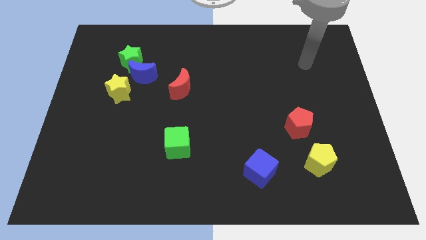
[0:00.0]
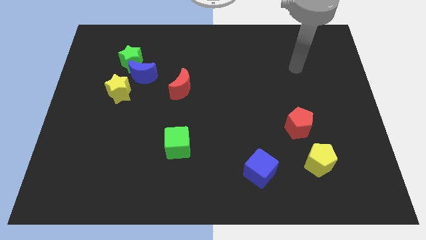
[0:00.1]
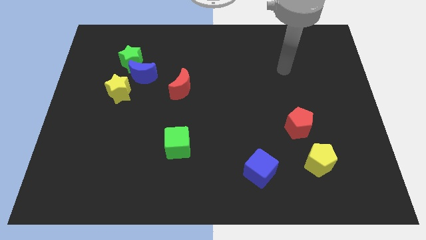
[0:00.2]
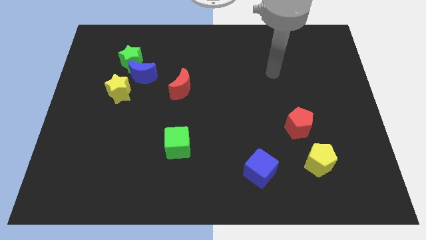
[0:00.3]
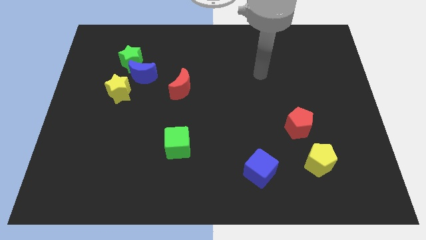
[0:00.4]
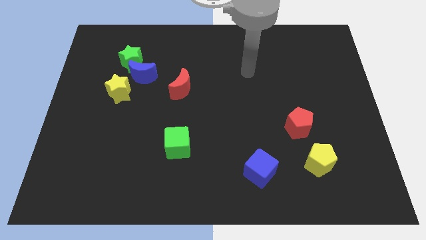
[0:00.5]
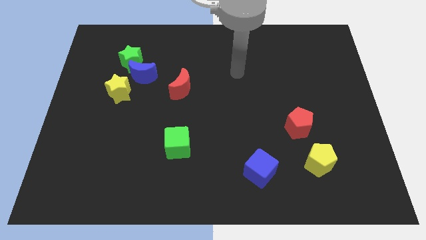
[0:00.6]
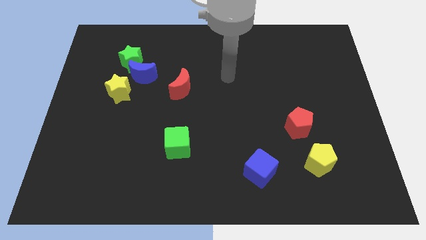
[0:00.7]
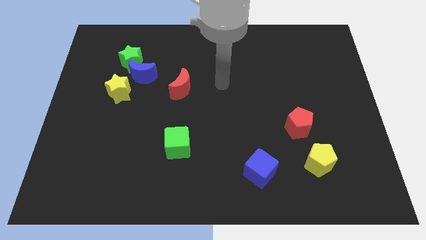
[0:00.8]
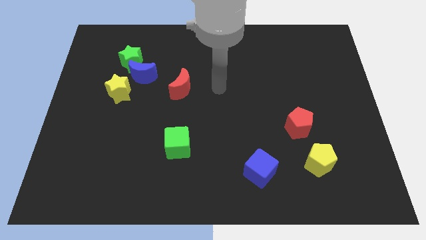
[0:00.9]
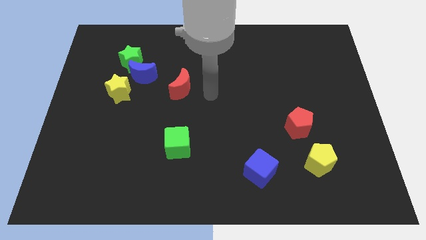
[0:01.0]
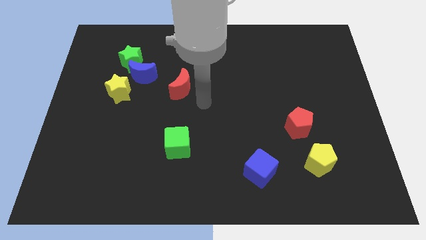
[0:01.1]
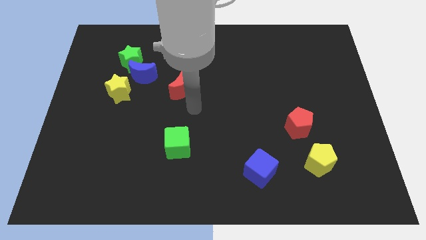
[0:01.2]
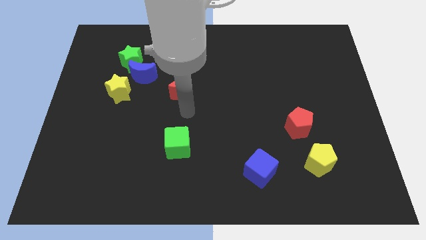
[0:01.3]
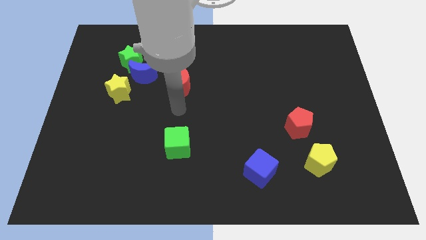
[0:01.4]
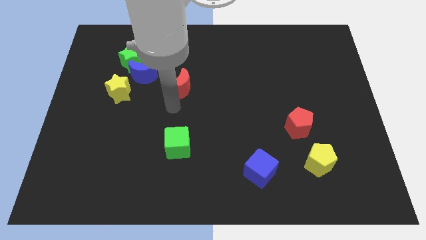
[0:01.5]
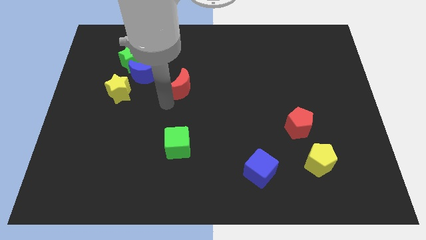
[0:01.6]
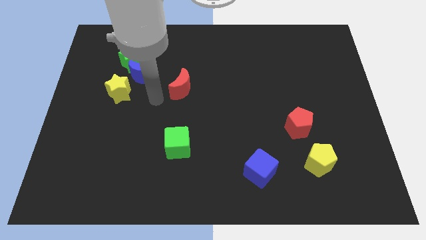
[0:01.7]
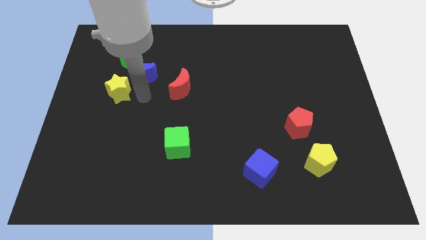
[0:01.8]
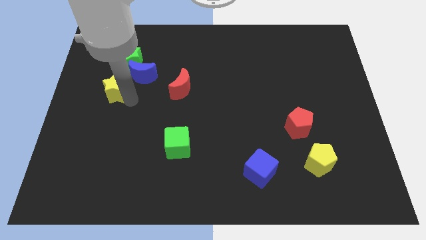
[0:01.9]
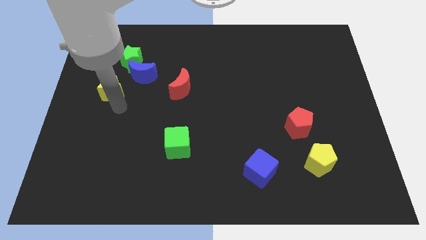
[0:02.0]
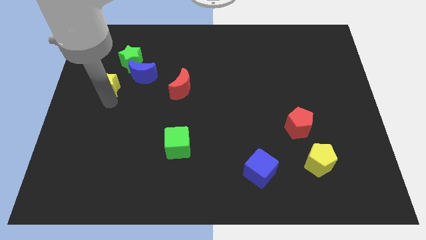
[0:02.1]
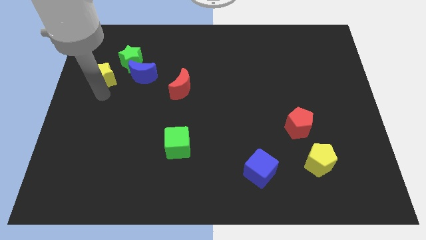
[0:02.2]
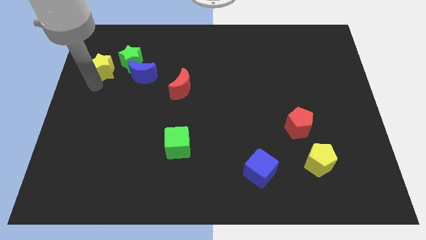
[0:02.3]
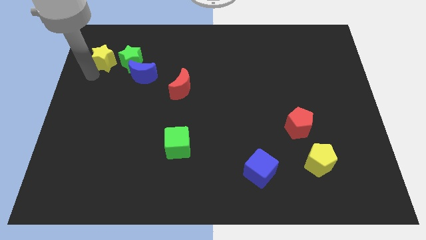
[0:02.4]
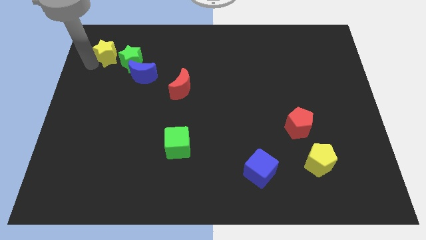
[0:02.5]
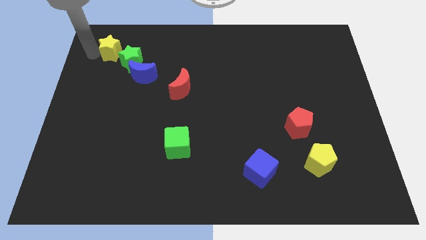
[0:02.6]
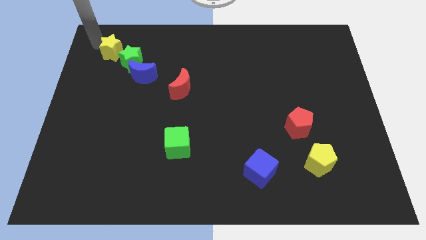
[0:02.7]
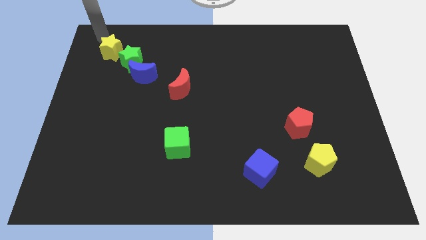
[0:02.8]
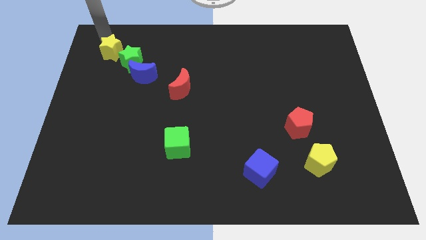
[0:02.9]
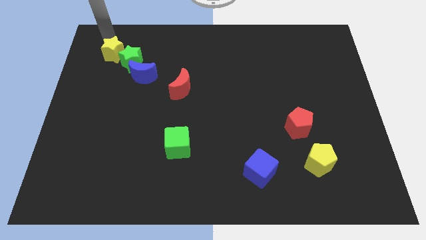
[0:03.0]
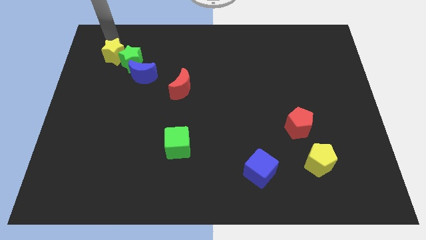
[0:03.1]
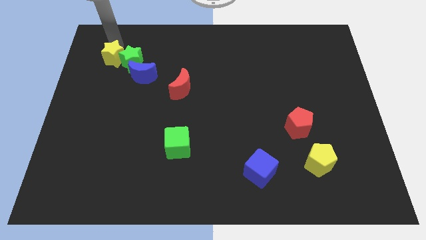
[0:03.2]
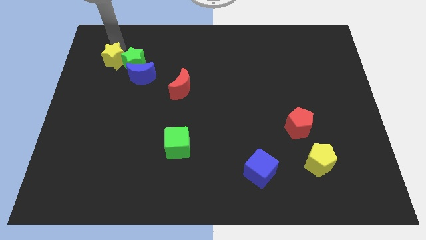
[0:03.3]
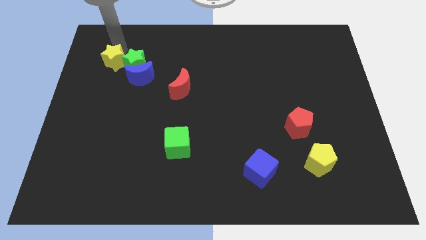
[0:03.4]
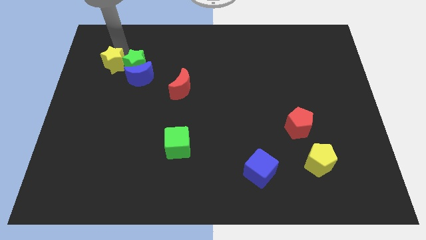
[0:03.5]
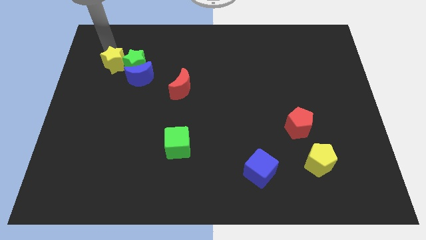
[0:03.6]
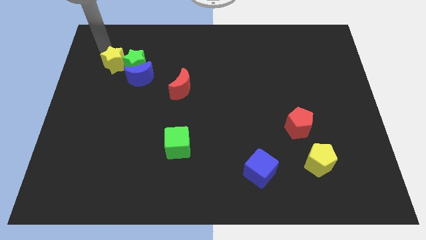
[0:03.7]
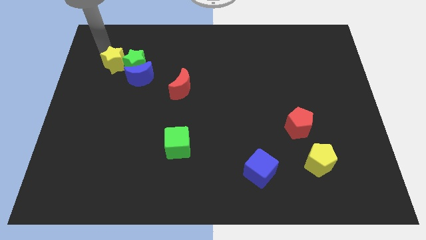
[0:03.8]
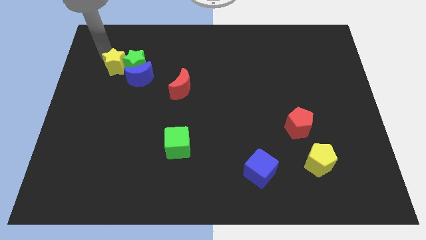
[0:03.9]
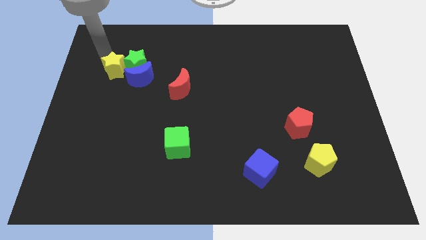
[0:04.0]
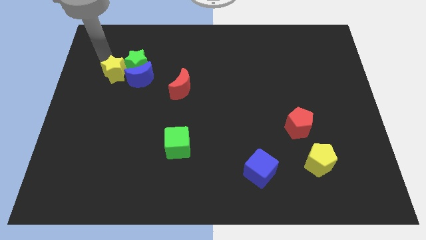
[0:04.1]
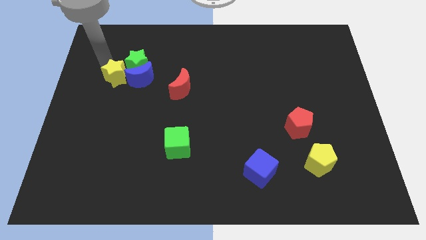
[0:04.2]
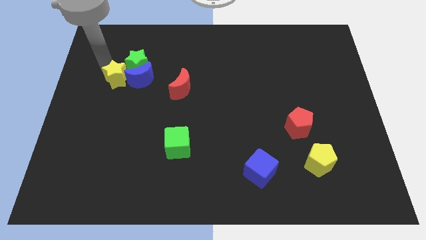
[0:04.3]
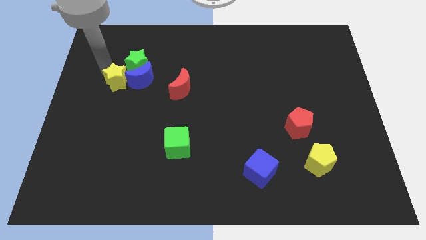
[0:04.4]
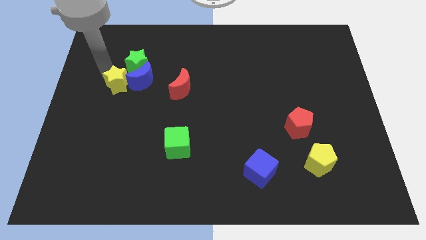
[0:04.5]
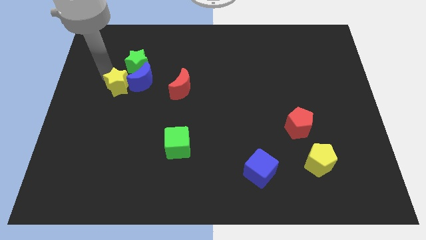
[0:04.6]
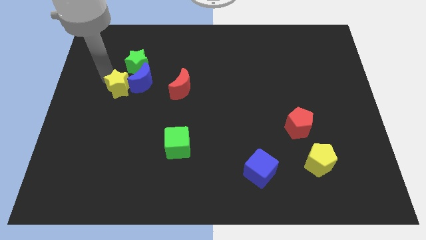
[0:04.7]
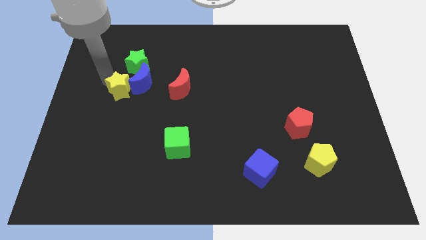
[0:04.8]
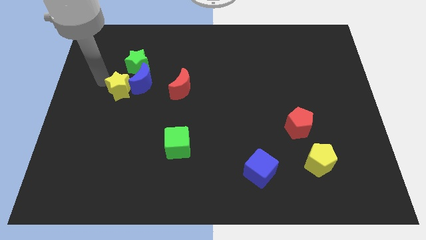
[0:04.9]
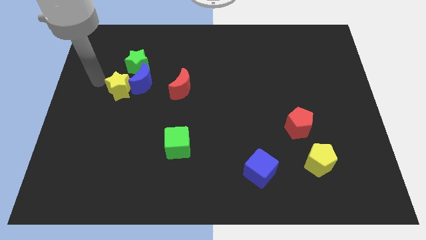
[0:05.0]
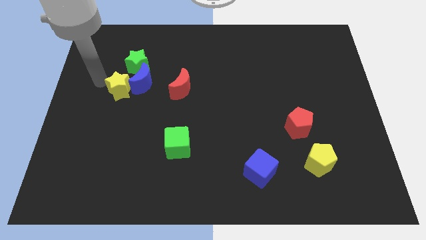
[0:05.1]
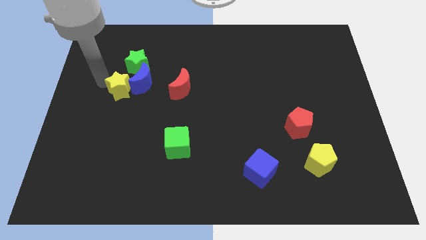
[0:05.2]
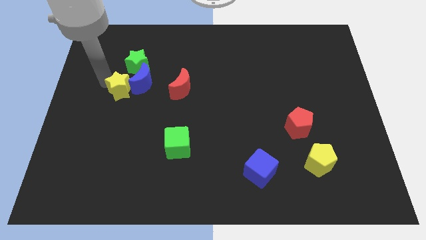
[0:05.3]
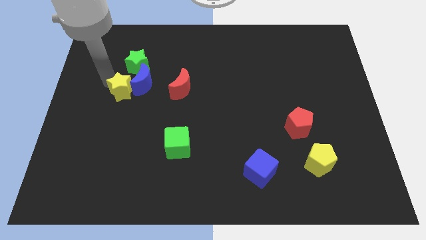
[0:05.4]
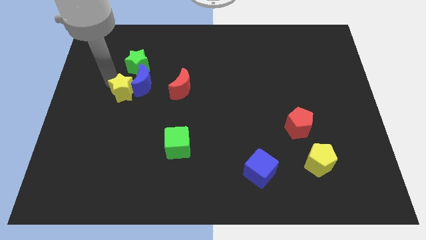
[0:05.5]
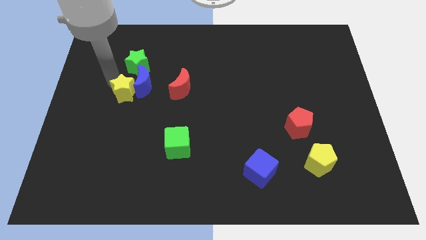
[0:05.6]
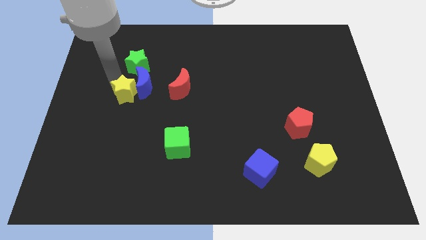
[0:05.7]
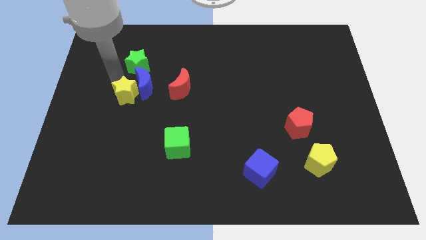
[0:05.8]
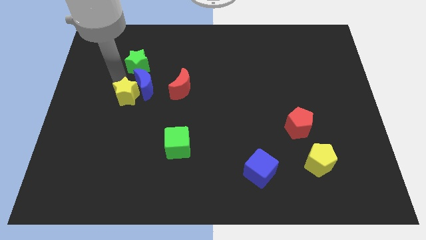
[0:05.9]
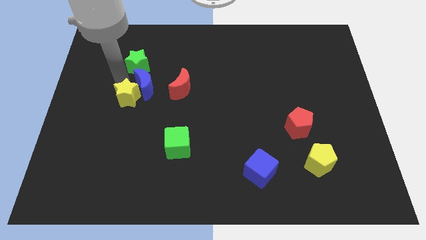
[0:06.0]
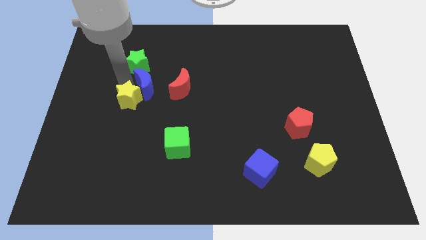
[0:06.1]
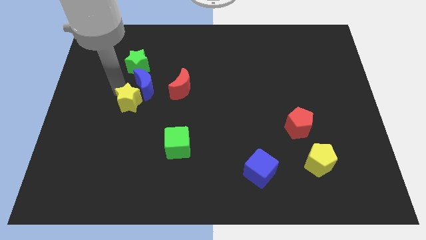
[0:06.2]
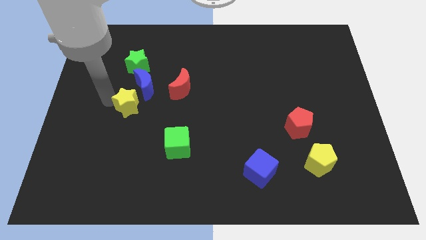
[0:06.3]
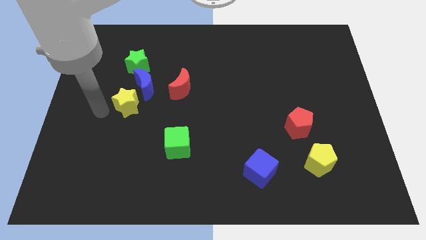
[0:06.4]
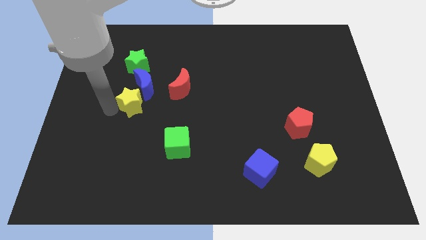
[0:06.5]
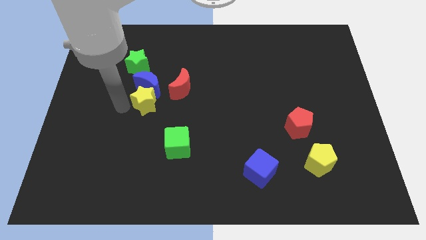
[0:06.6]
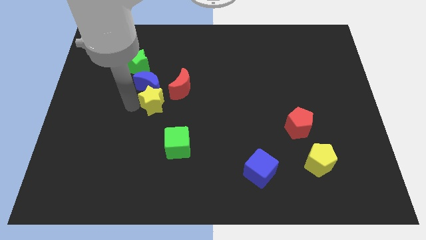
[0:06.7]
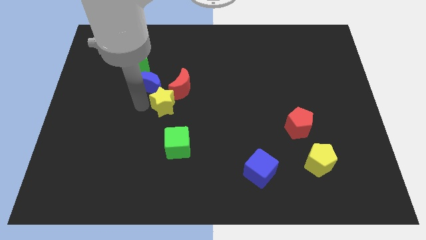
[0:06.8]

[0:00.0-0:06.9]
put the yellow star close to the red moon

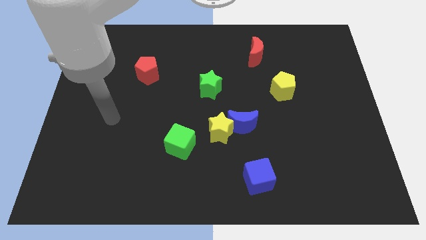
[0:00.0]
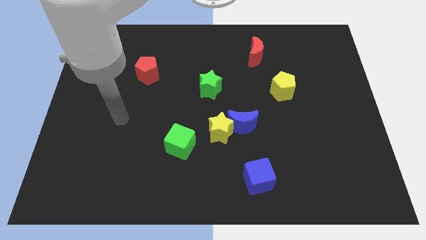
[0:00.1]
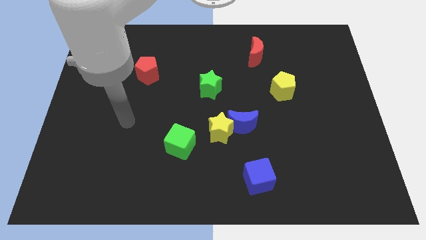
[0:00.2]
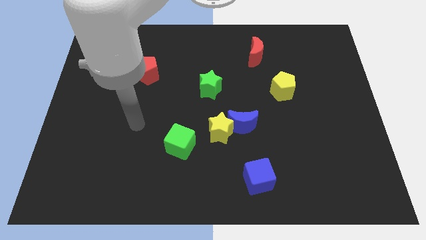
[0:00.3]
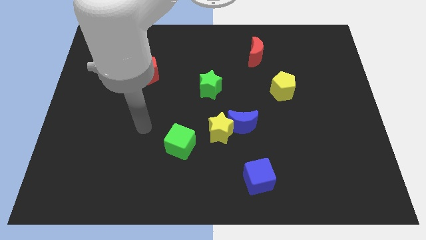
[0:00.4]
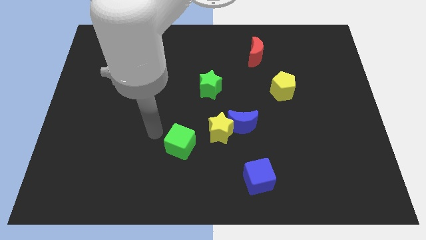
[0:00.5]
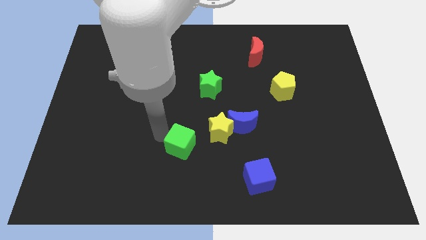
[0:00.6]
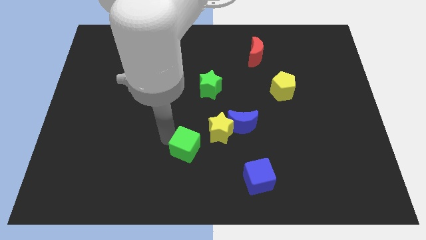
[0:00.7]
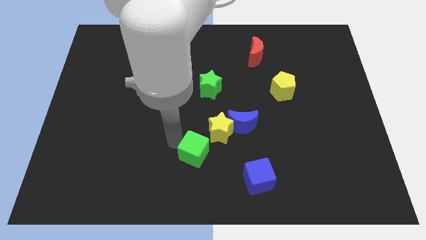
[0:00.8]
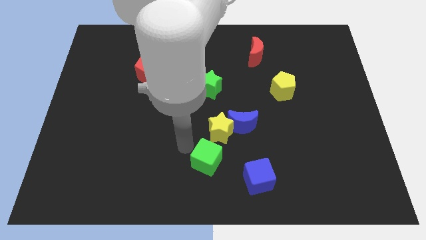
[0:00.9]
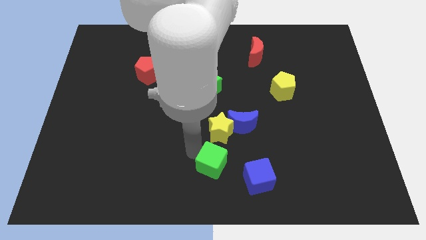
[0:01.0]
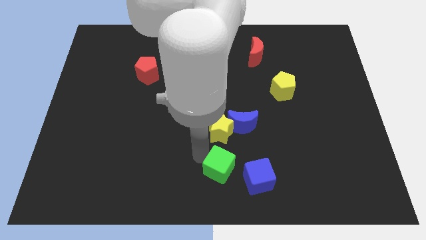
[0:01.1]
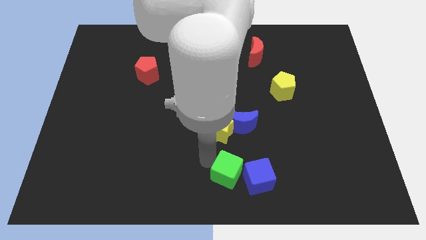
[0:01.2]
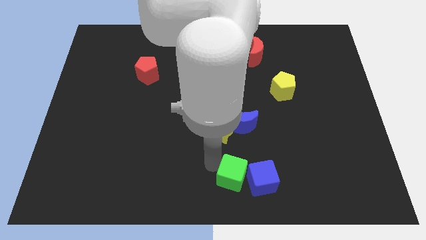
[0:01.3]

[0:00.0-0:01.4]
push the green cube close to the blue cube
